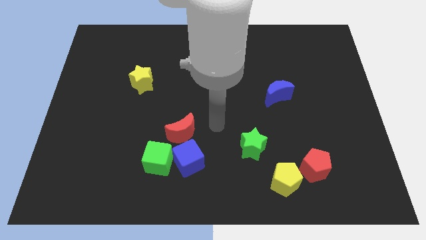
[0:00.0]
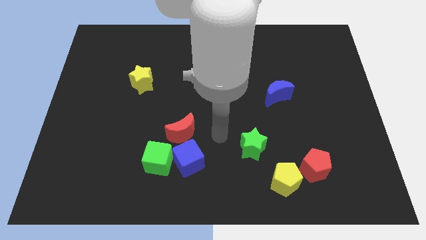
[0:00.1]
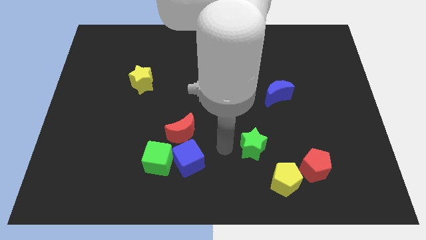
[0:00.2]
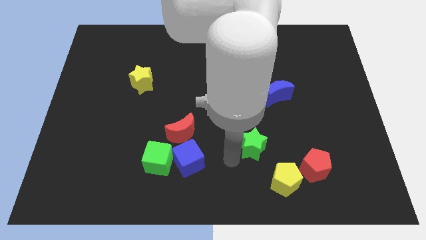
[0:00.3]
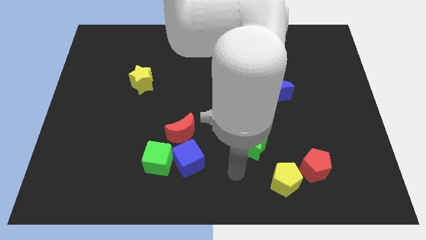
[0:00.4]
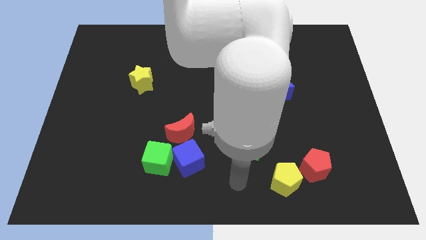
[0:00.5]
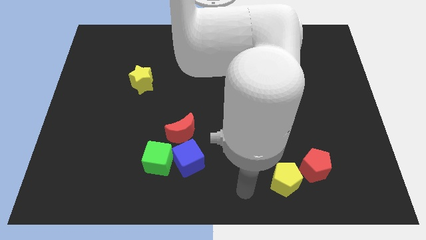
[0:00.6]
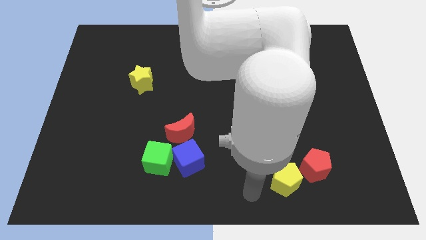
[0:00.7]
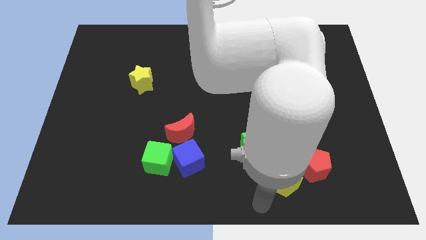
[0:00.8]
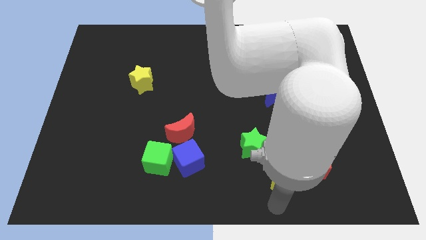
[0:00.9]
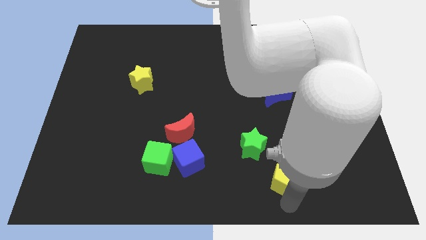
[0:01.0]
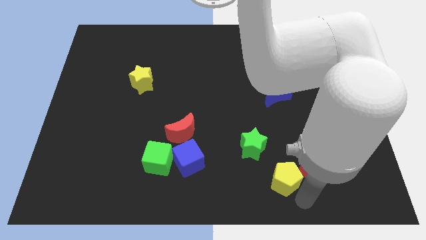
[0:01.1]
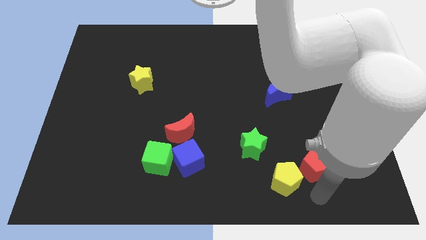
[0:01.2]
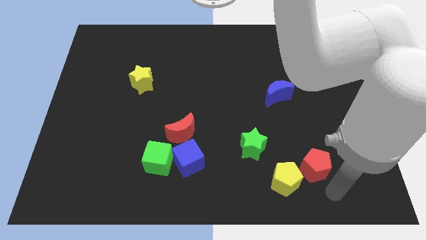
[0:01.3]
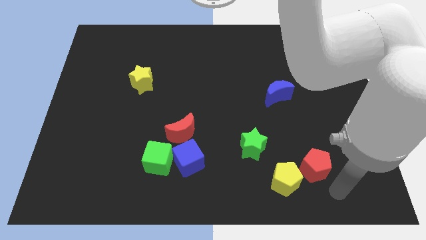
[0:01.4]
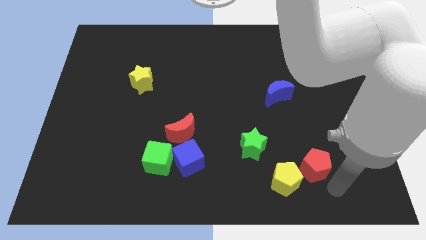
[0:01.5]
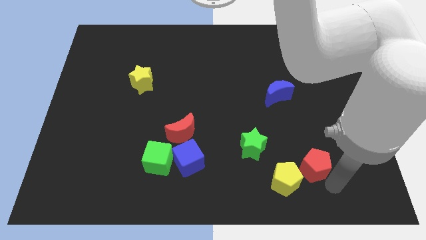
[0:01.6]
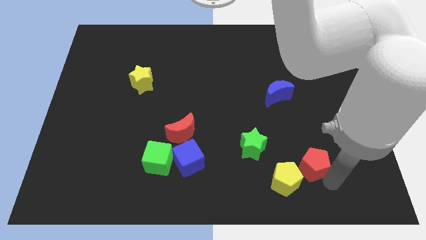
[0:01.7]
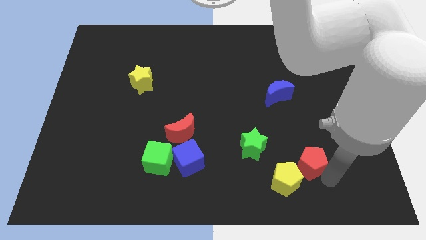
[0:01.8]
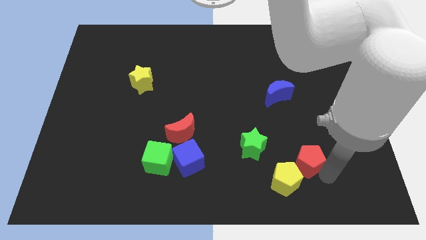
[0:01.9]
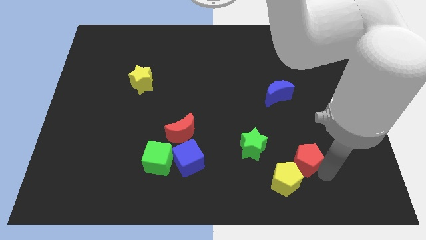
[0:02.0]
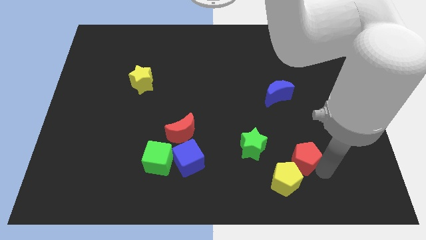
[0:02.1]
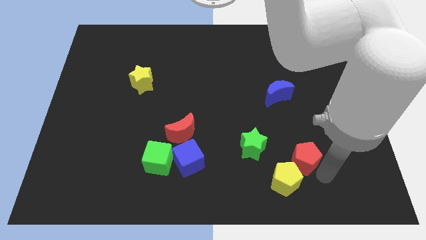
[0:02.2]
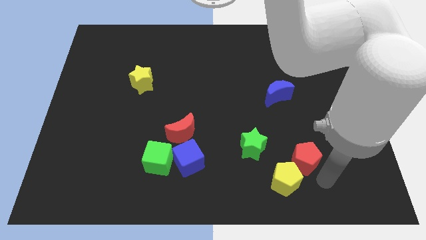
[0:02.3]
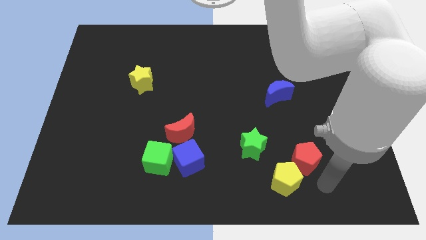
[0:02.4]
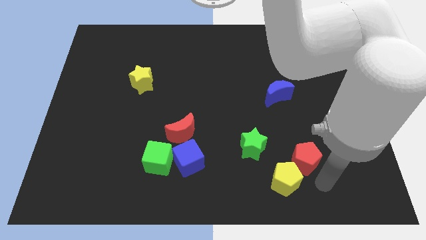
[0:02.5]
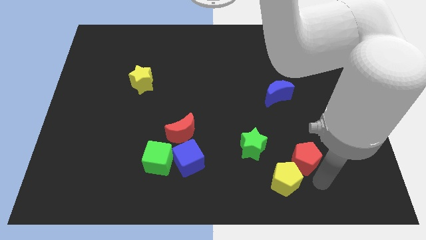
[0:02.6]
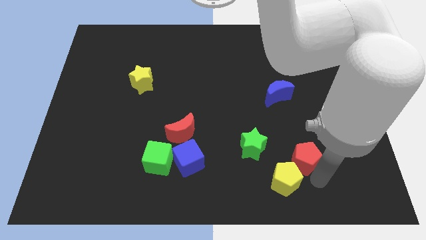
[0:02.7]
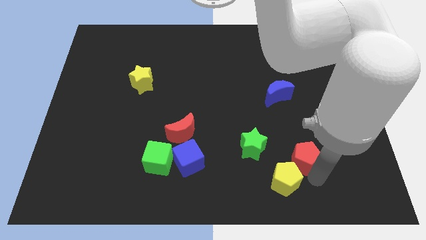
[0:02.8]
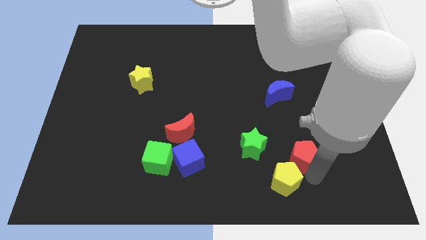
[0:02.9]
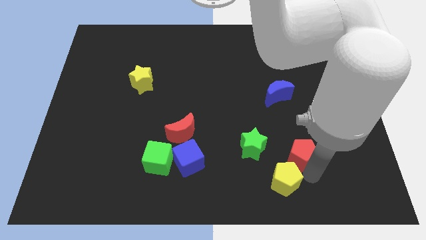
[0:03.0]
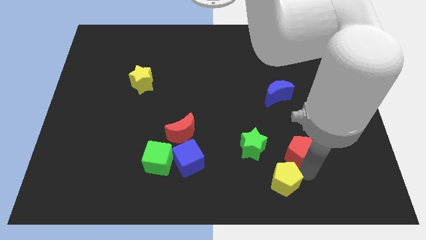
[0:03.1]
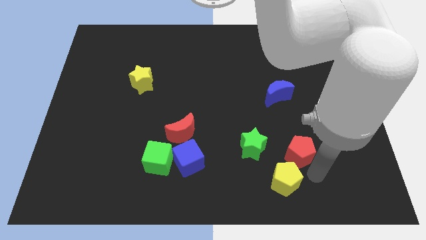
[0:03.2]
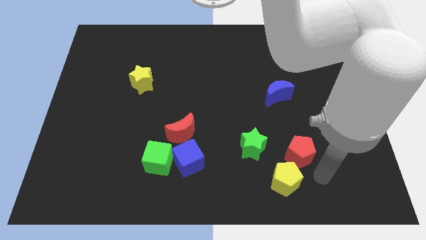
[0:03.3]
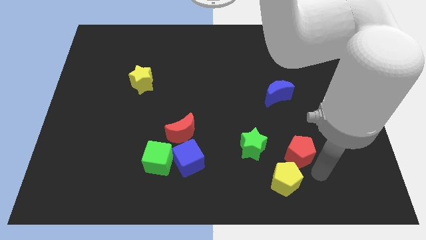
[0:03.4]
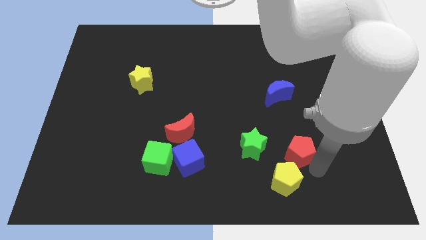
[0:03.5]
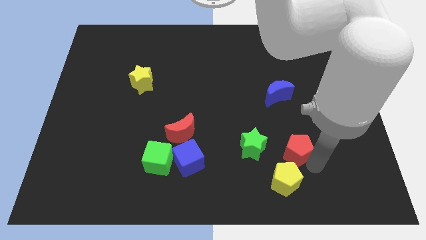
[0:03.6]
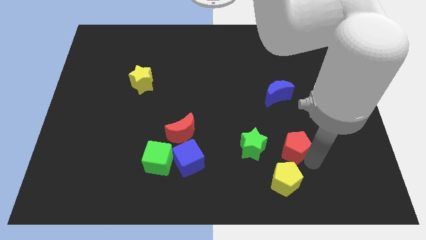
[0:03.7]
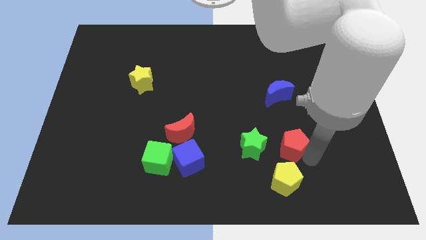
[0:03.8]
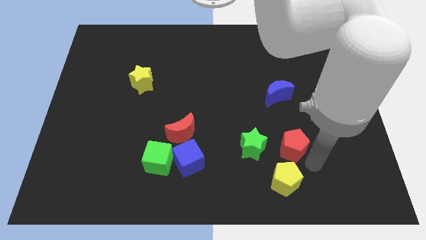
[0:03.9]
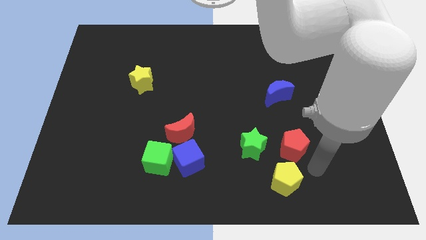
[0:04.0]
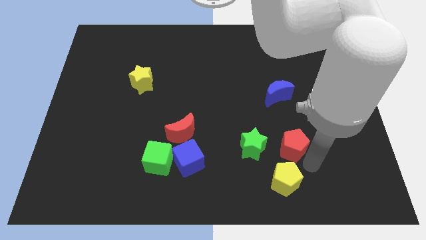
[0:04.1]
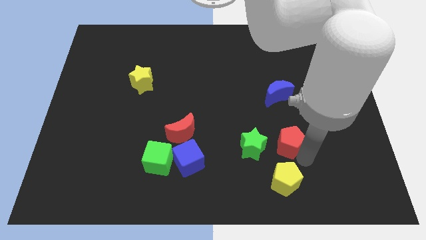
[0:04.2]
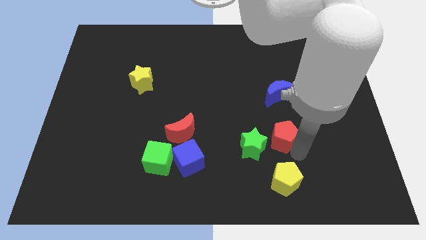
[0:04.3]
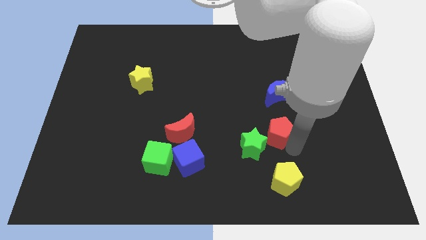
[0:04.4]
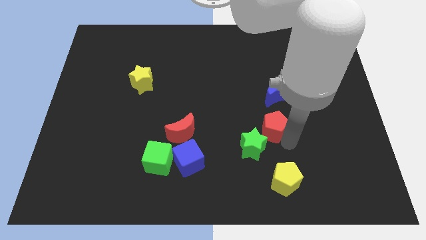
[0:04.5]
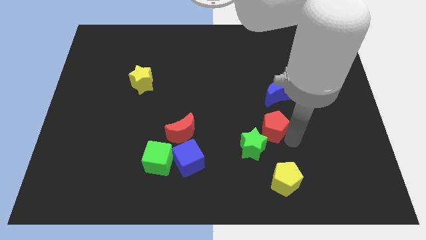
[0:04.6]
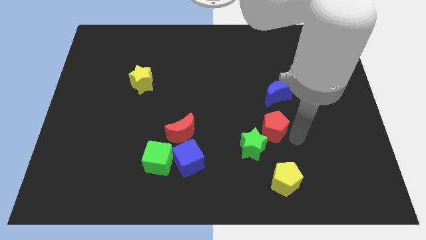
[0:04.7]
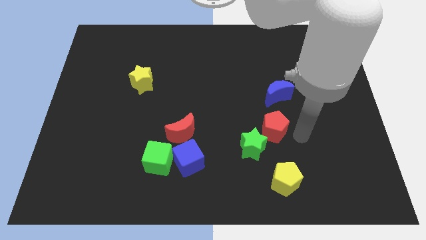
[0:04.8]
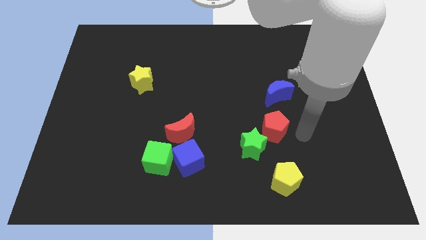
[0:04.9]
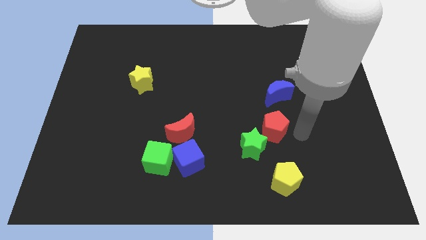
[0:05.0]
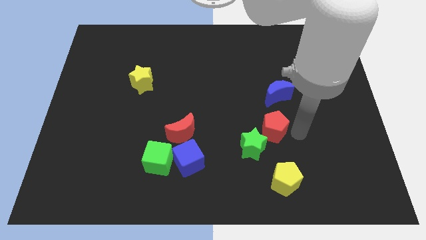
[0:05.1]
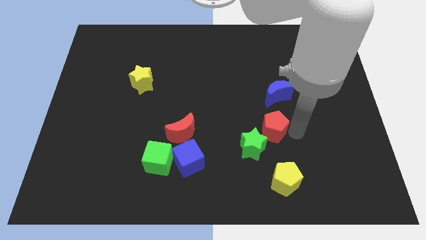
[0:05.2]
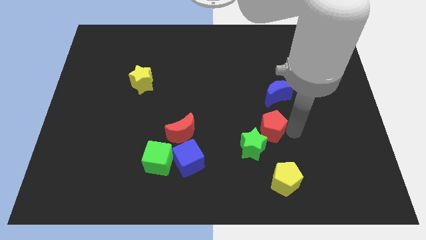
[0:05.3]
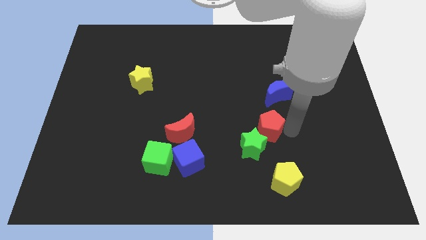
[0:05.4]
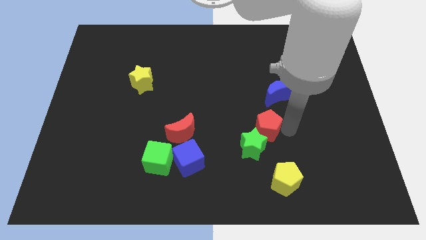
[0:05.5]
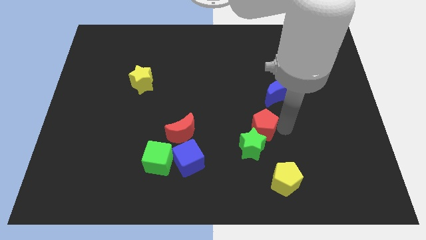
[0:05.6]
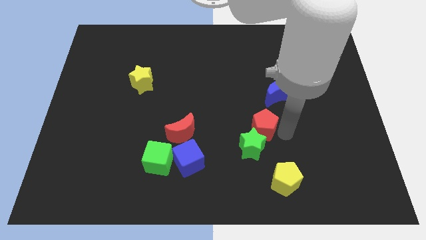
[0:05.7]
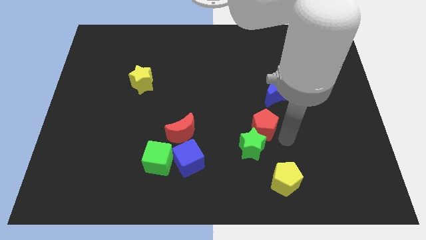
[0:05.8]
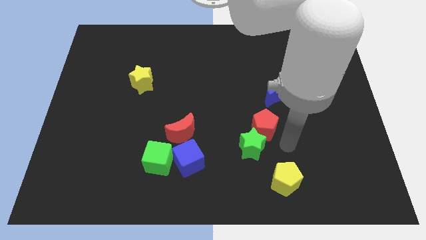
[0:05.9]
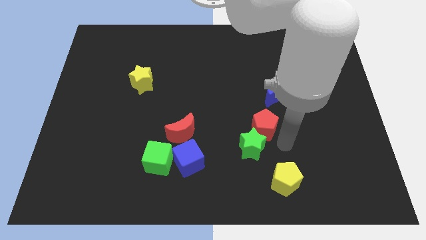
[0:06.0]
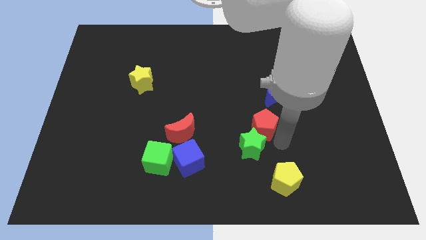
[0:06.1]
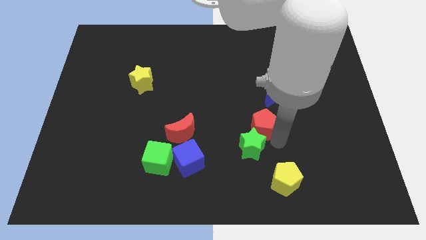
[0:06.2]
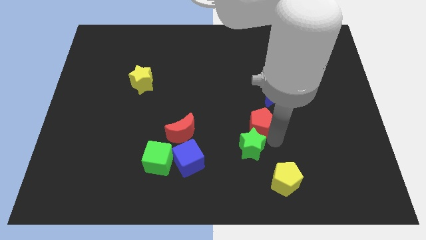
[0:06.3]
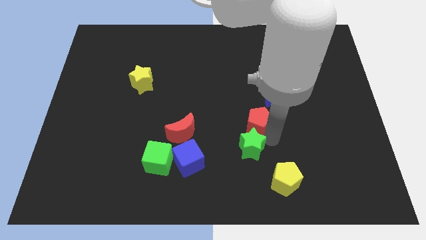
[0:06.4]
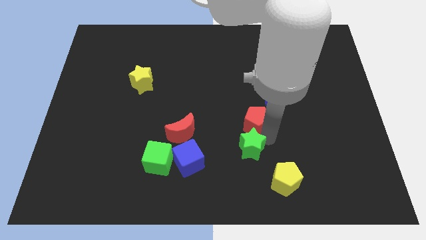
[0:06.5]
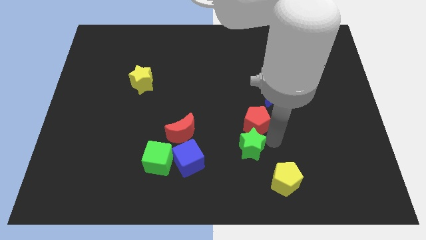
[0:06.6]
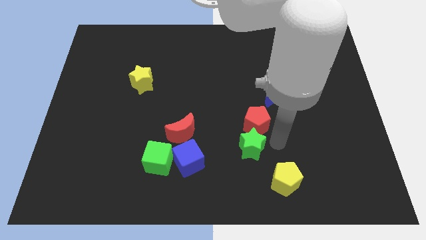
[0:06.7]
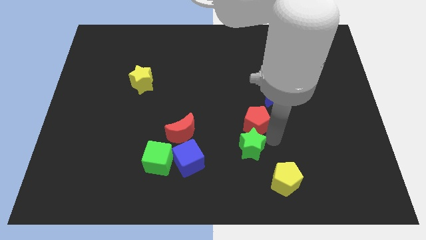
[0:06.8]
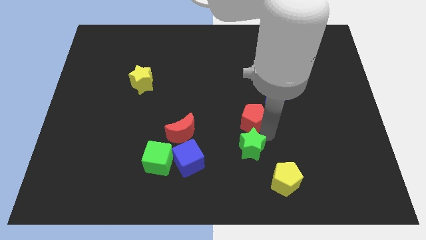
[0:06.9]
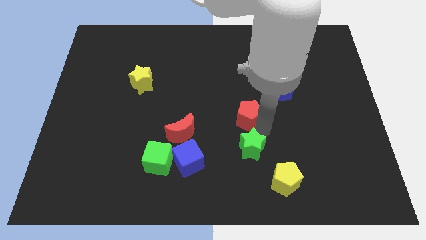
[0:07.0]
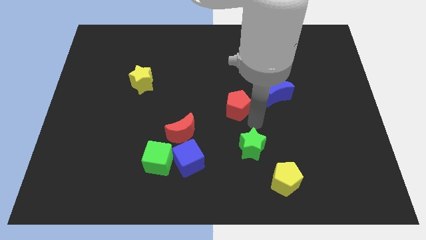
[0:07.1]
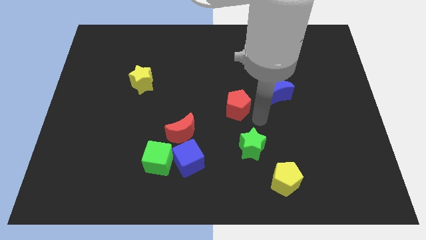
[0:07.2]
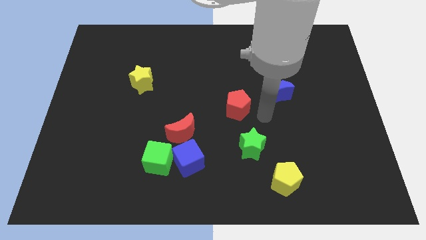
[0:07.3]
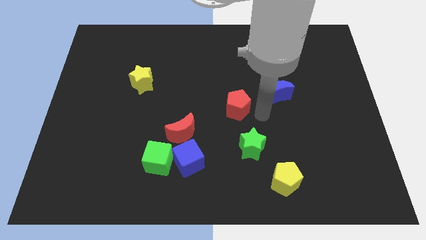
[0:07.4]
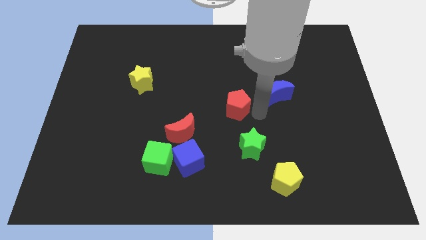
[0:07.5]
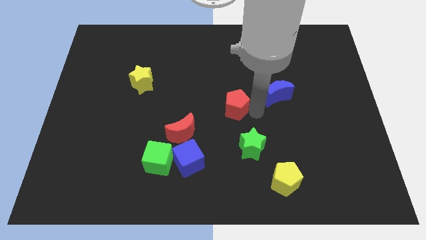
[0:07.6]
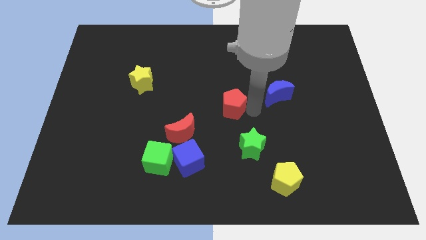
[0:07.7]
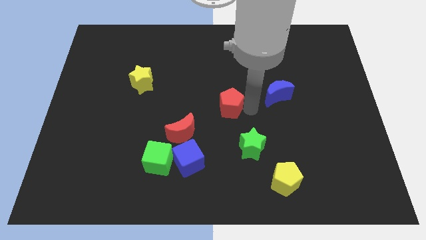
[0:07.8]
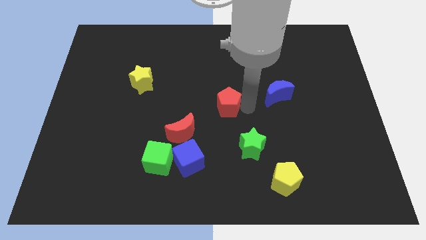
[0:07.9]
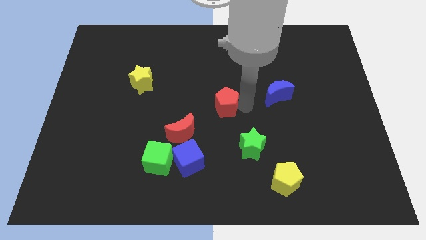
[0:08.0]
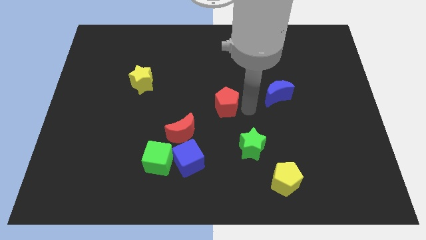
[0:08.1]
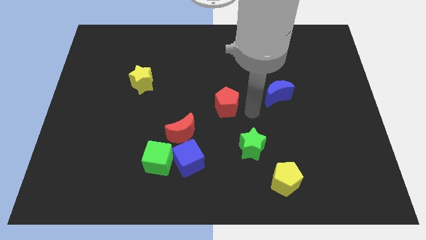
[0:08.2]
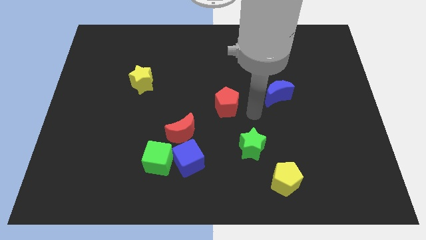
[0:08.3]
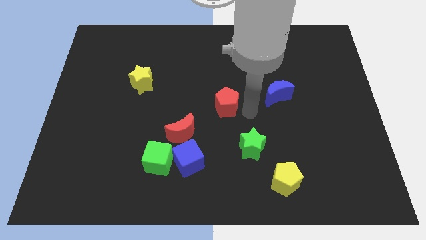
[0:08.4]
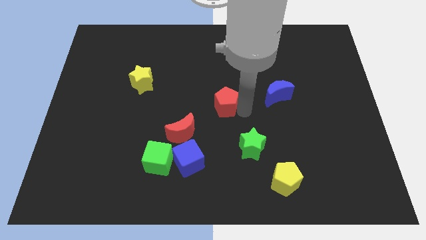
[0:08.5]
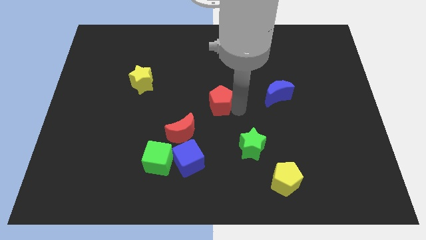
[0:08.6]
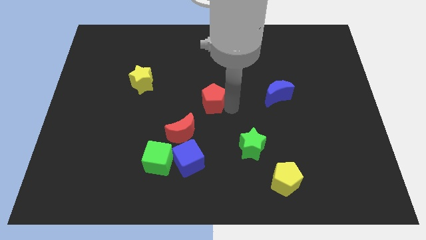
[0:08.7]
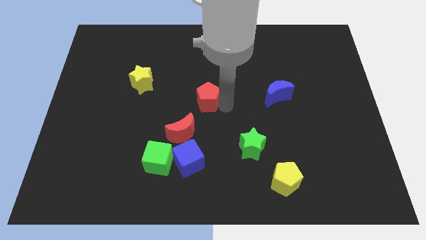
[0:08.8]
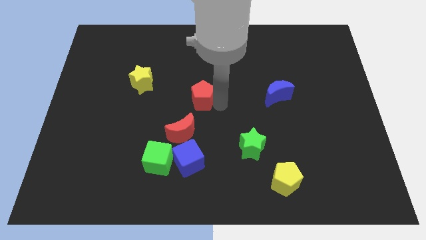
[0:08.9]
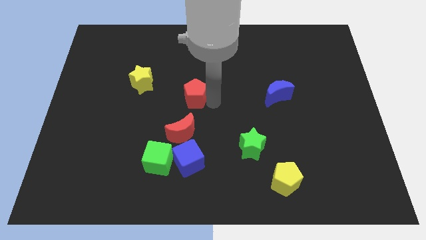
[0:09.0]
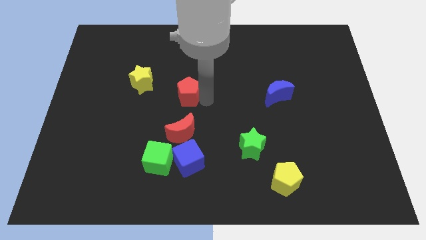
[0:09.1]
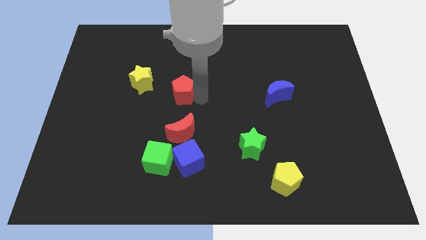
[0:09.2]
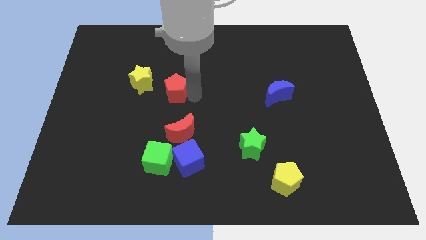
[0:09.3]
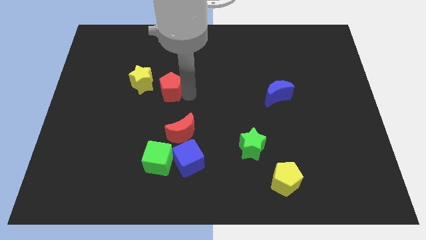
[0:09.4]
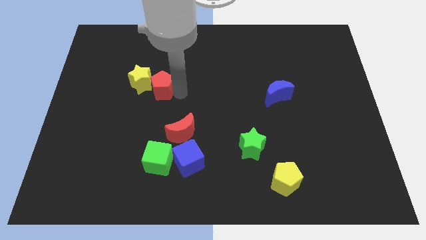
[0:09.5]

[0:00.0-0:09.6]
push the red pentagon towards the yellow star
